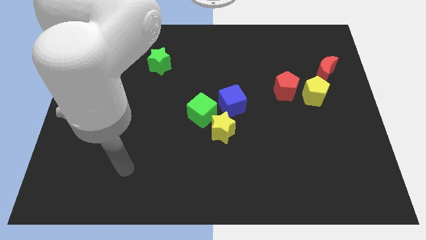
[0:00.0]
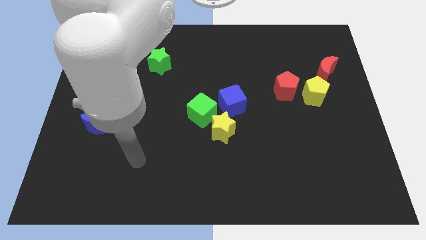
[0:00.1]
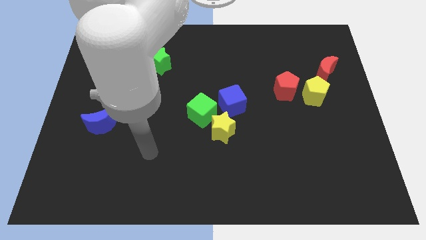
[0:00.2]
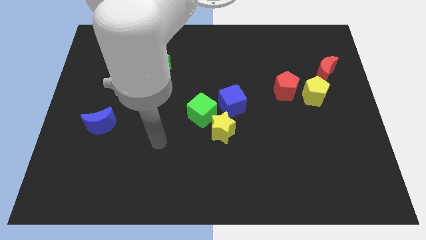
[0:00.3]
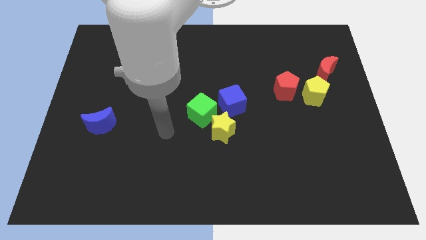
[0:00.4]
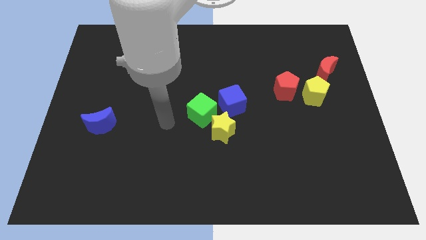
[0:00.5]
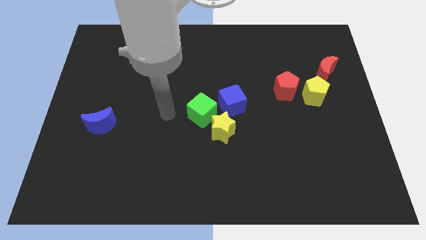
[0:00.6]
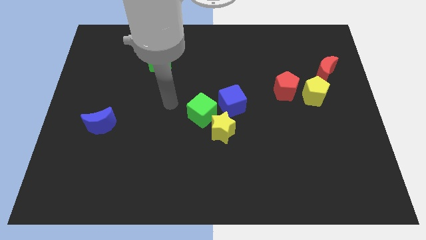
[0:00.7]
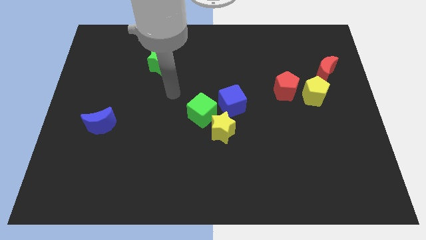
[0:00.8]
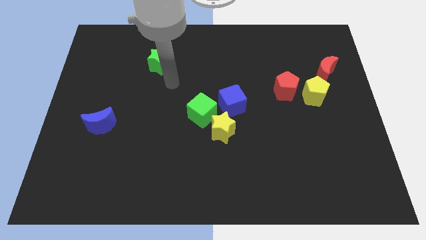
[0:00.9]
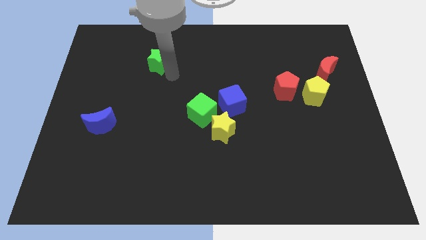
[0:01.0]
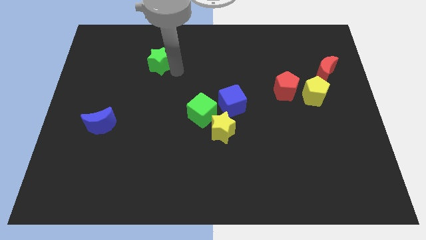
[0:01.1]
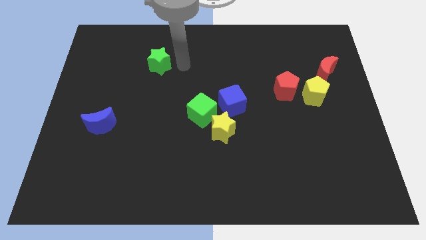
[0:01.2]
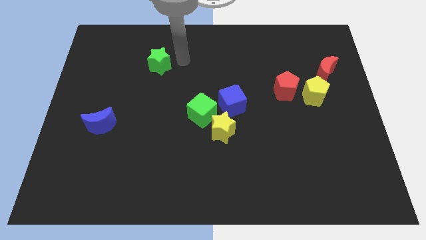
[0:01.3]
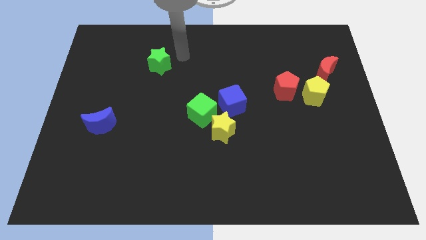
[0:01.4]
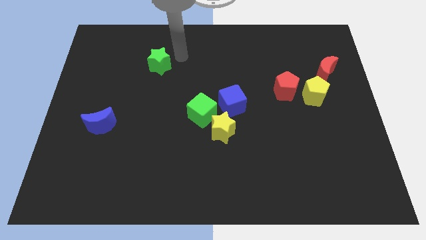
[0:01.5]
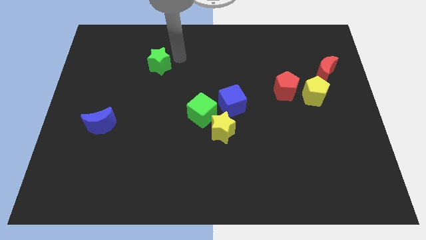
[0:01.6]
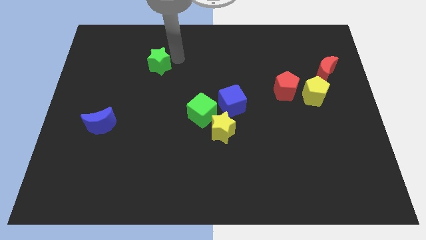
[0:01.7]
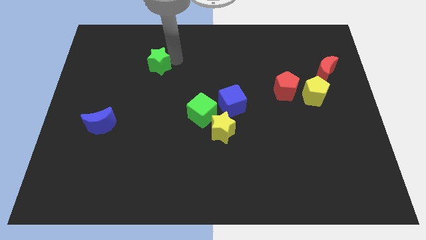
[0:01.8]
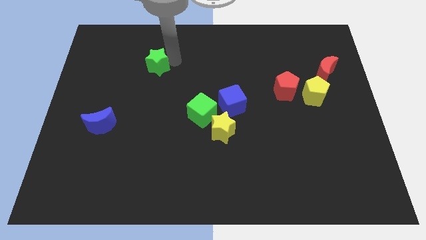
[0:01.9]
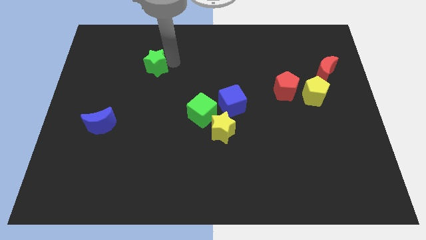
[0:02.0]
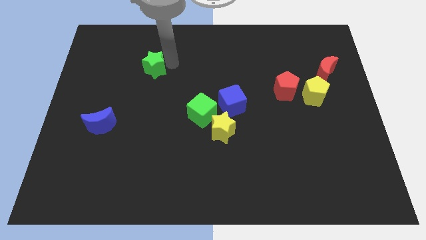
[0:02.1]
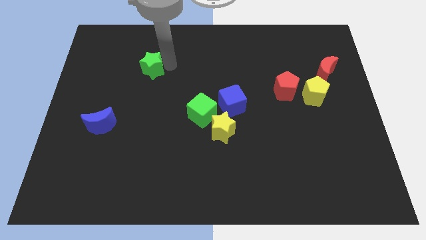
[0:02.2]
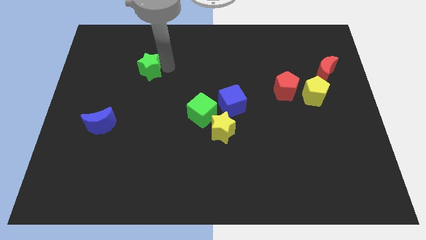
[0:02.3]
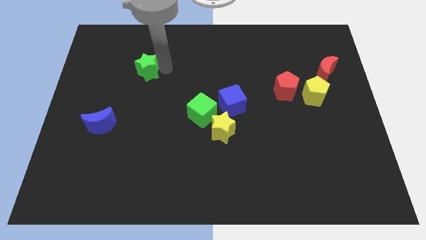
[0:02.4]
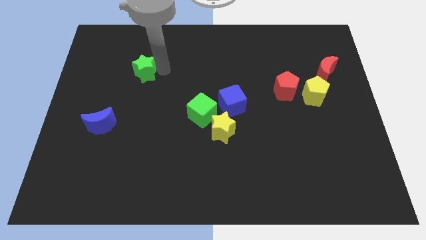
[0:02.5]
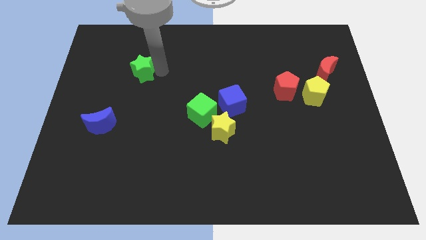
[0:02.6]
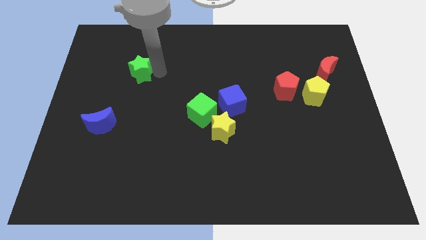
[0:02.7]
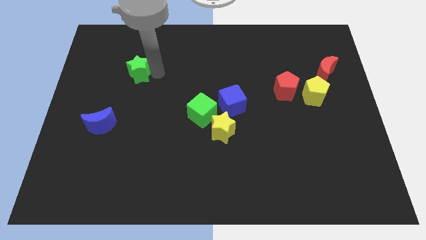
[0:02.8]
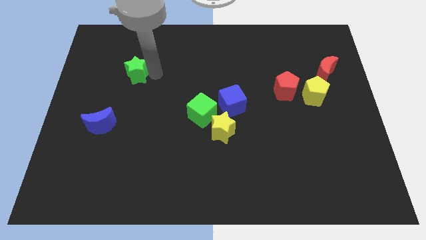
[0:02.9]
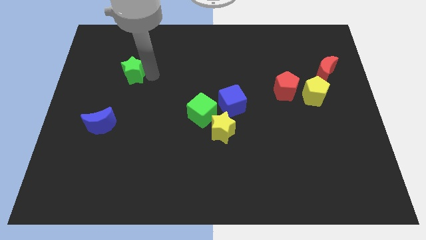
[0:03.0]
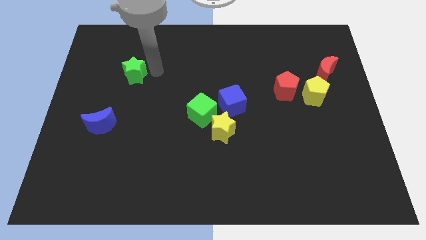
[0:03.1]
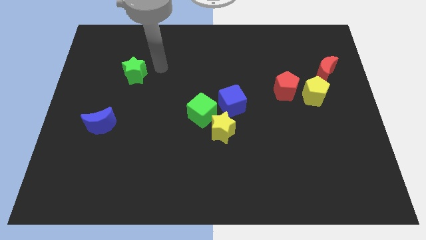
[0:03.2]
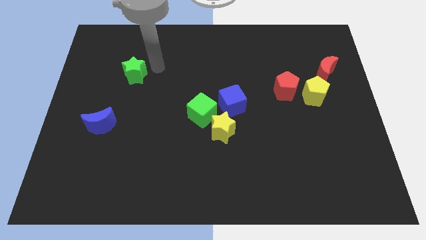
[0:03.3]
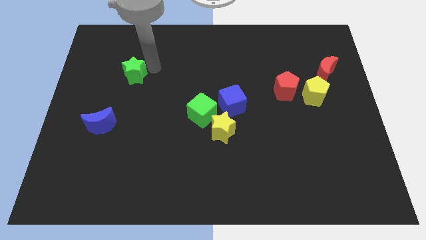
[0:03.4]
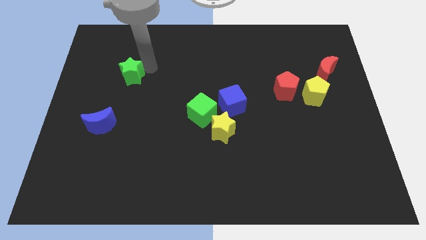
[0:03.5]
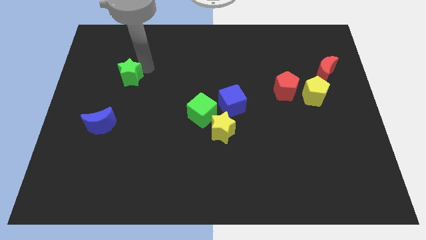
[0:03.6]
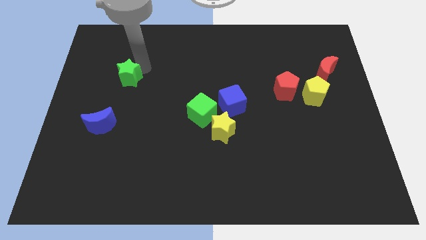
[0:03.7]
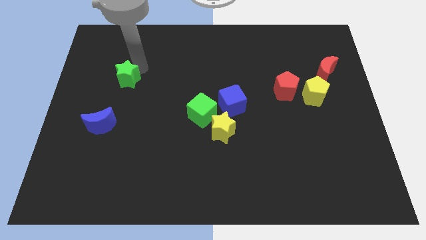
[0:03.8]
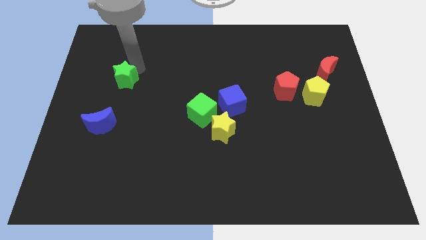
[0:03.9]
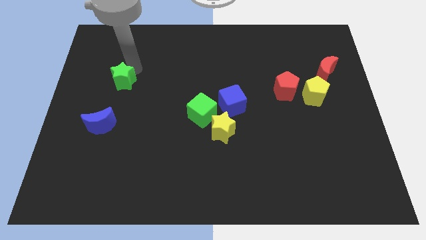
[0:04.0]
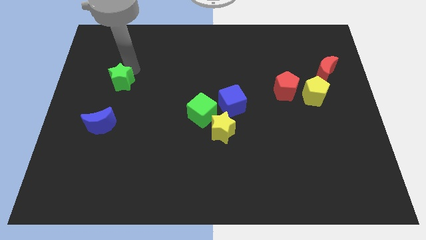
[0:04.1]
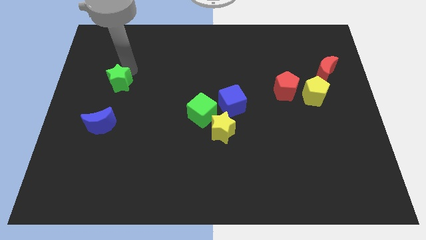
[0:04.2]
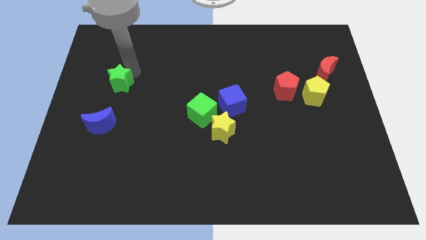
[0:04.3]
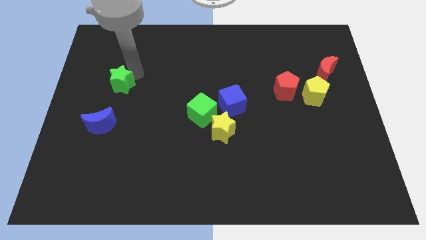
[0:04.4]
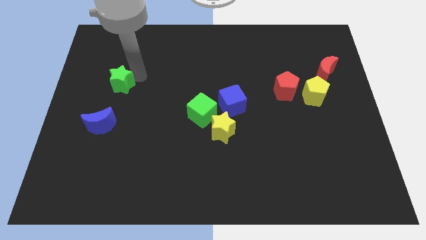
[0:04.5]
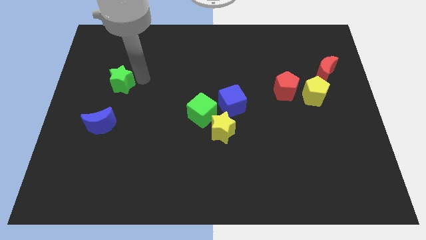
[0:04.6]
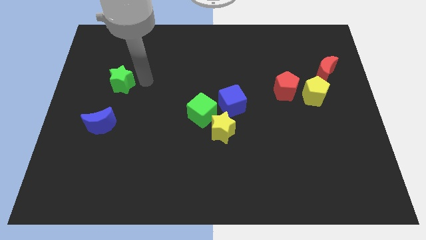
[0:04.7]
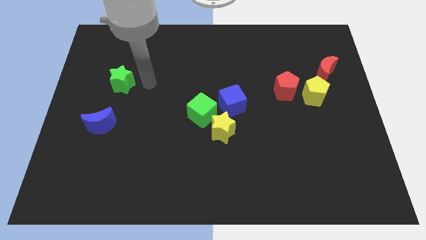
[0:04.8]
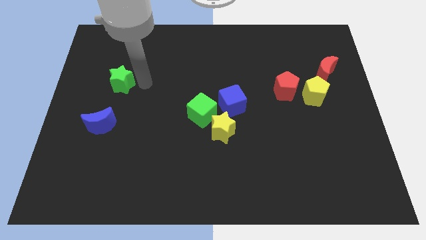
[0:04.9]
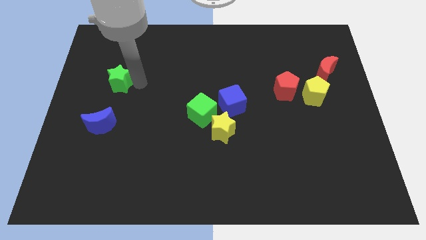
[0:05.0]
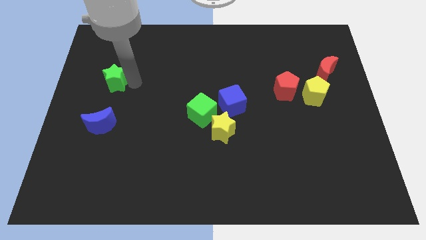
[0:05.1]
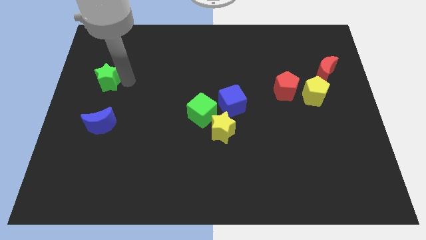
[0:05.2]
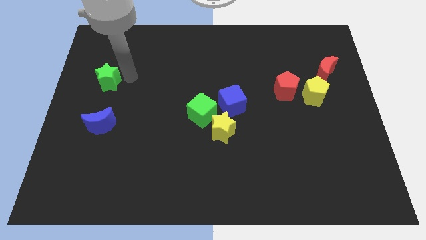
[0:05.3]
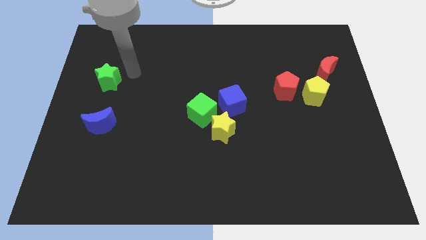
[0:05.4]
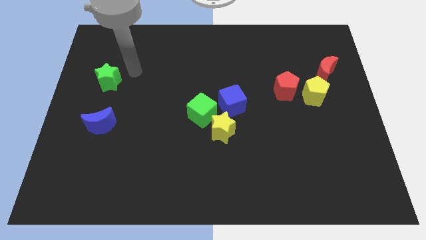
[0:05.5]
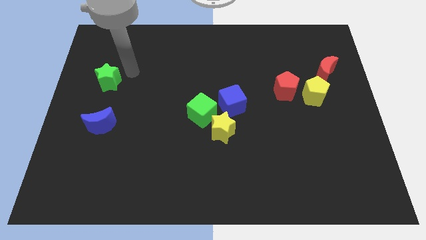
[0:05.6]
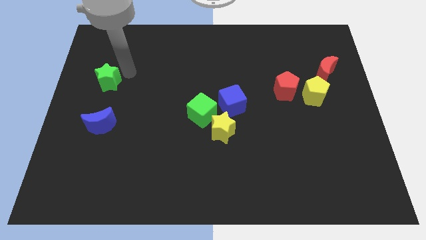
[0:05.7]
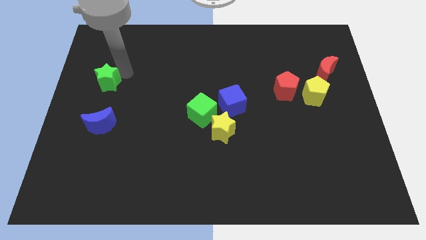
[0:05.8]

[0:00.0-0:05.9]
slide the green star to the center left

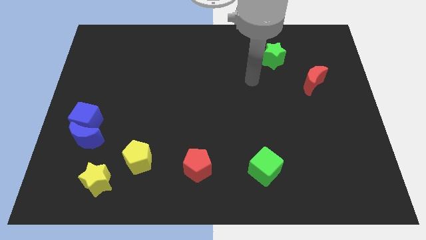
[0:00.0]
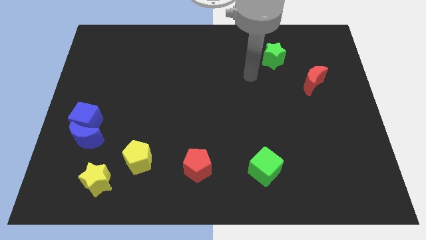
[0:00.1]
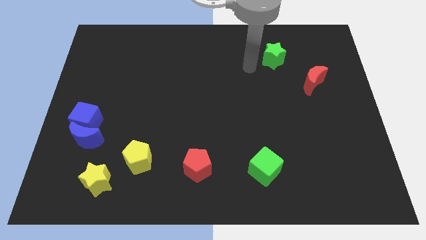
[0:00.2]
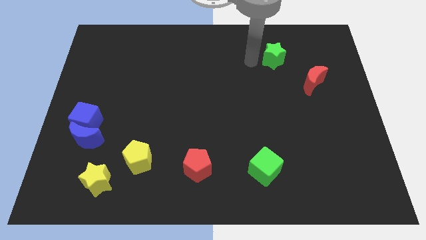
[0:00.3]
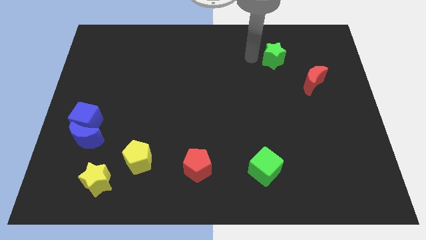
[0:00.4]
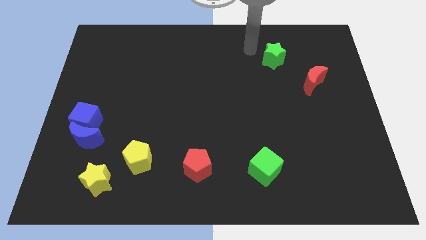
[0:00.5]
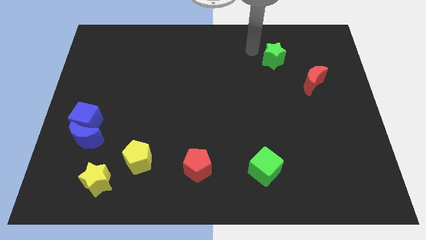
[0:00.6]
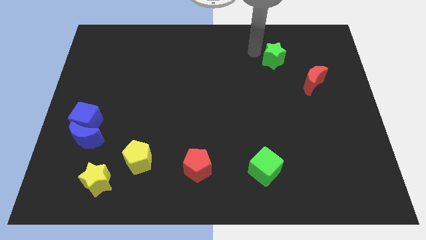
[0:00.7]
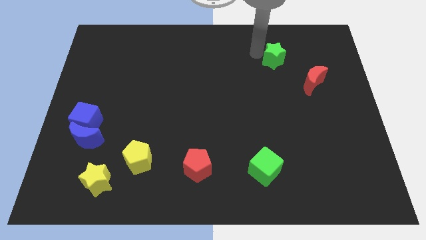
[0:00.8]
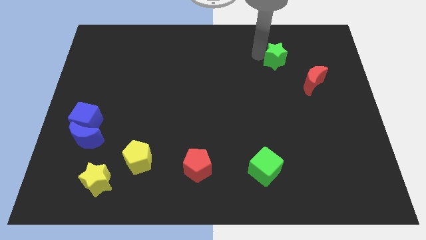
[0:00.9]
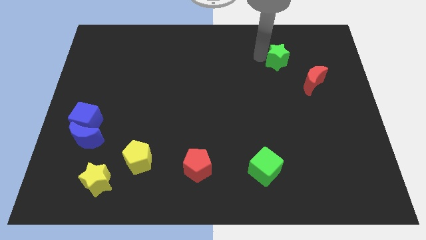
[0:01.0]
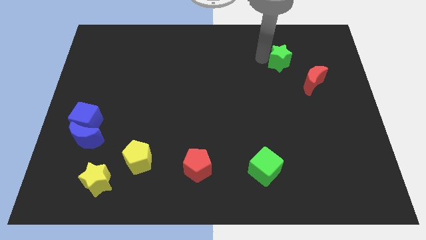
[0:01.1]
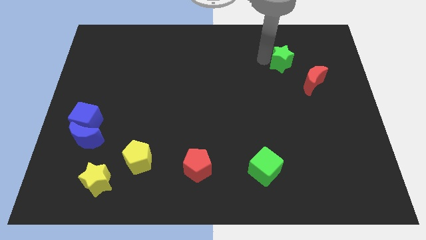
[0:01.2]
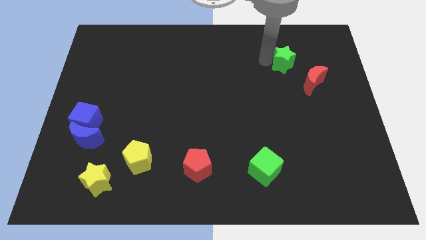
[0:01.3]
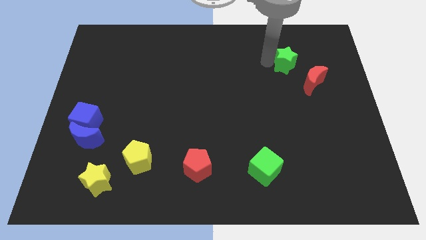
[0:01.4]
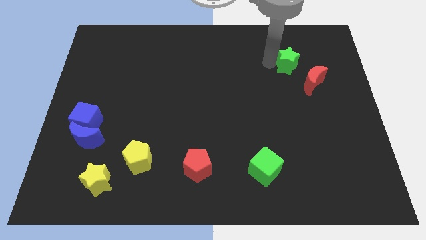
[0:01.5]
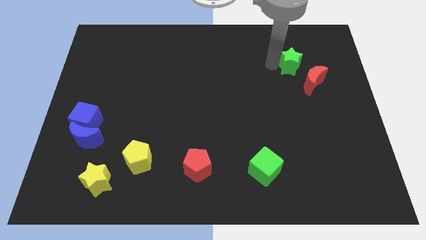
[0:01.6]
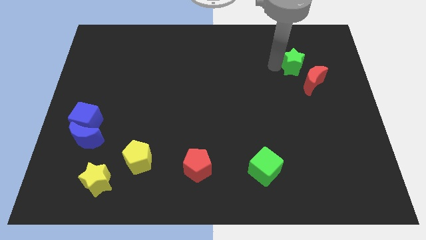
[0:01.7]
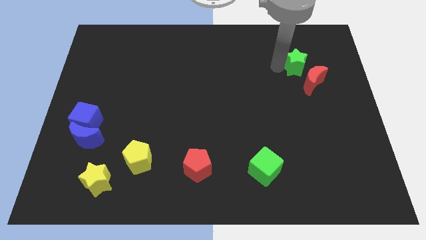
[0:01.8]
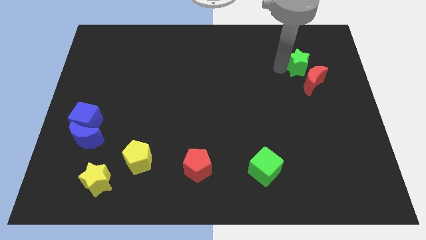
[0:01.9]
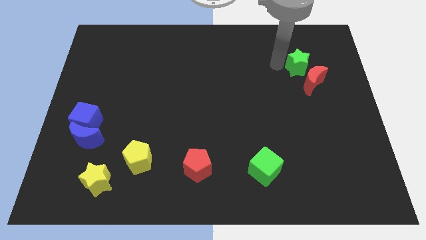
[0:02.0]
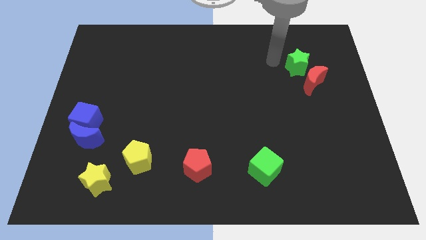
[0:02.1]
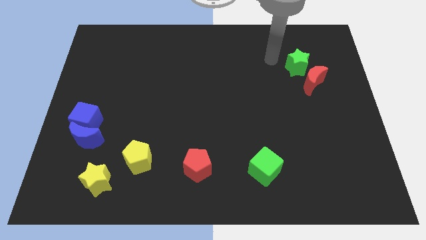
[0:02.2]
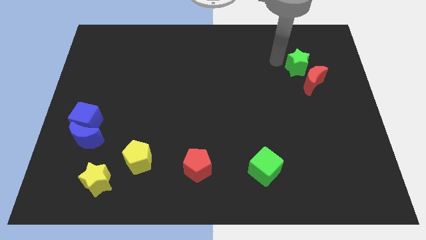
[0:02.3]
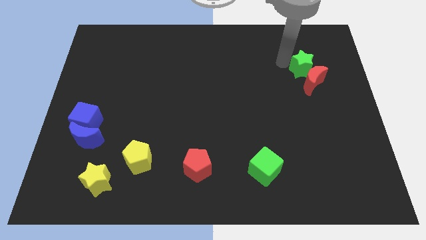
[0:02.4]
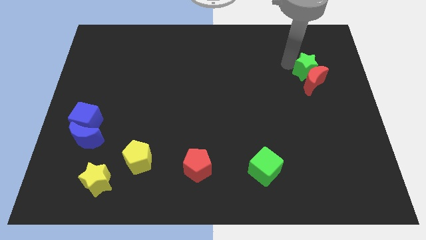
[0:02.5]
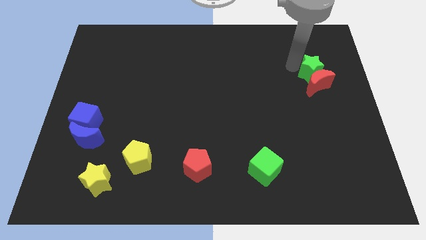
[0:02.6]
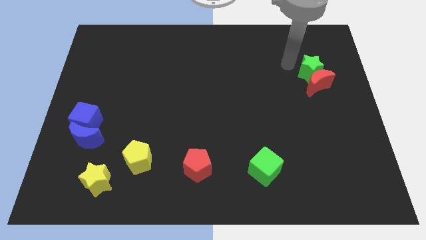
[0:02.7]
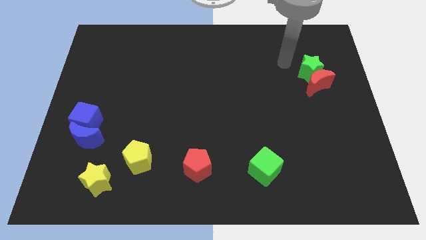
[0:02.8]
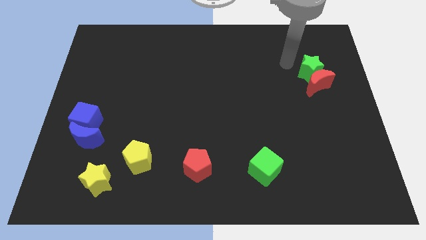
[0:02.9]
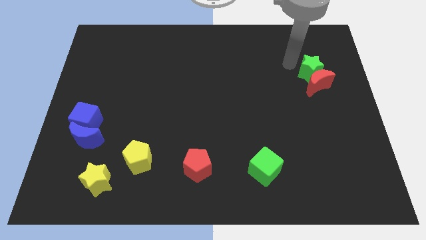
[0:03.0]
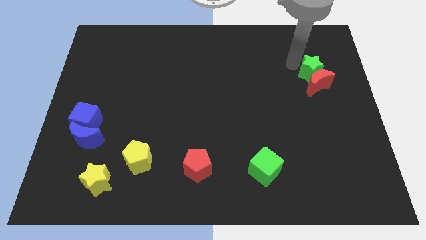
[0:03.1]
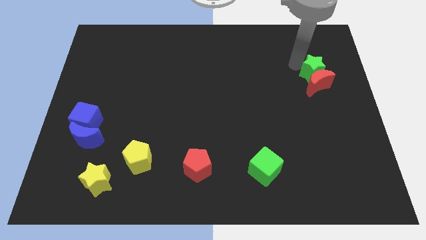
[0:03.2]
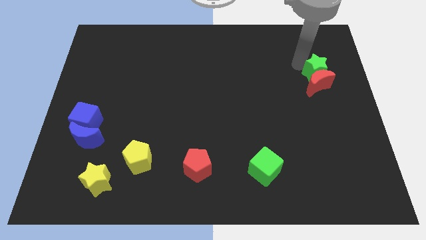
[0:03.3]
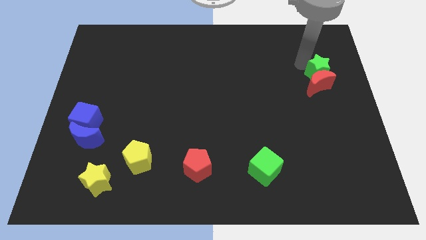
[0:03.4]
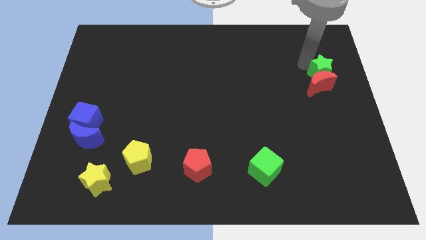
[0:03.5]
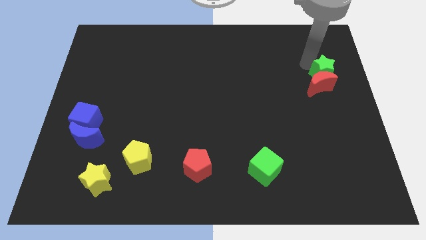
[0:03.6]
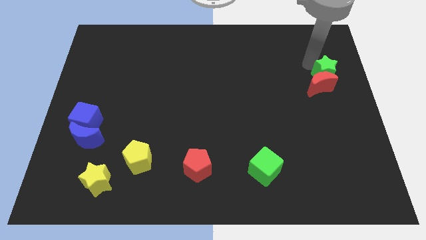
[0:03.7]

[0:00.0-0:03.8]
move the green star to the right side
